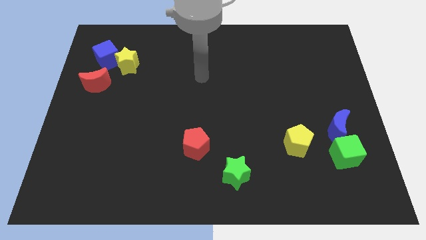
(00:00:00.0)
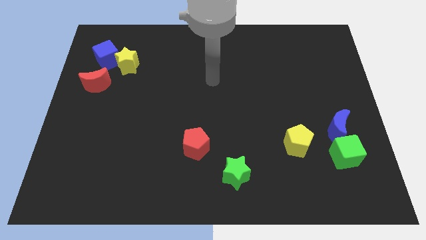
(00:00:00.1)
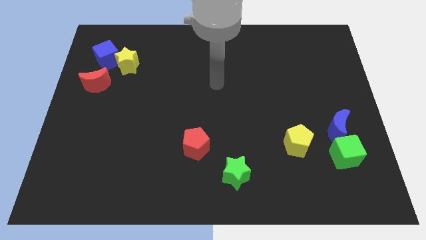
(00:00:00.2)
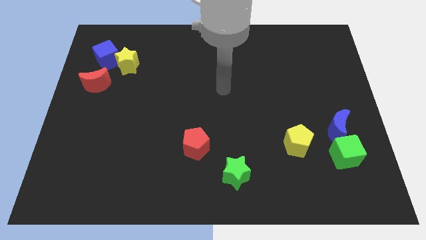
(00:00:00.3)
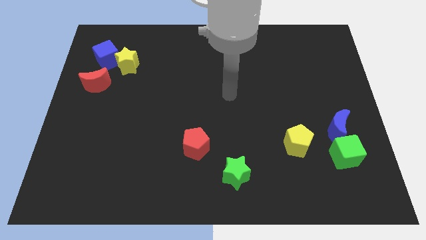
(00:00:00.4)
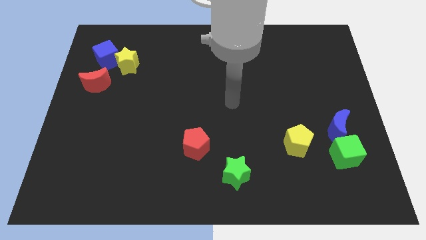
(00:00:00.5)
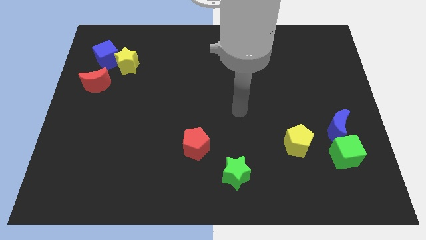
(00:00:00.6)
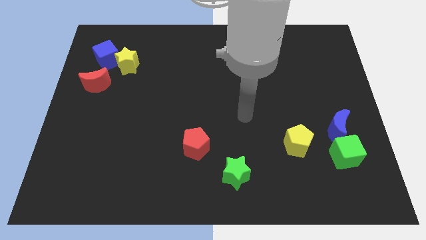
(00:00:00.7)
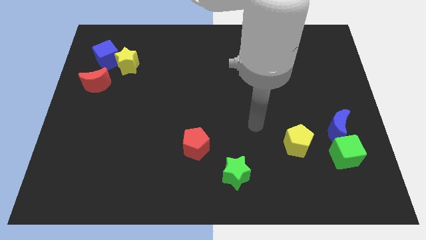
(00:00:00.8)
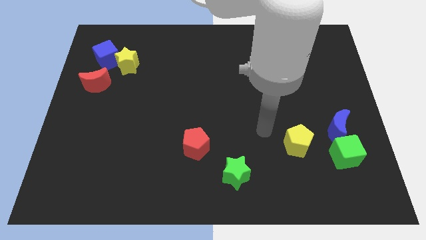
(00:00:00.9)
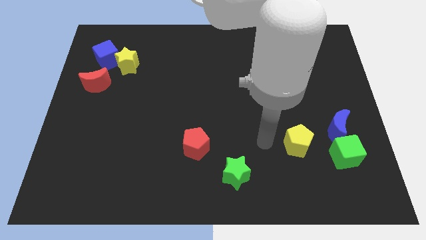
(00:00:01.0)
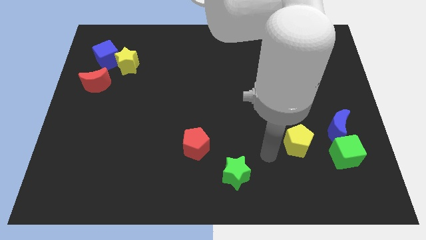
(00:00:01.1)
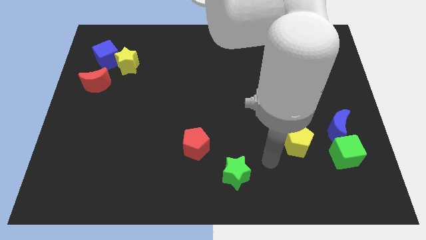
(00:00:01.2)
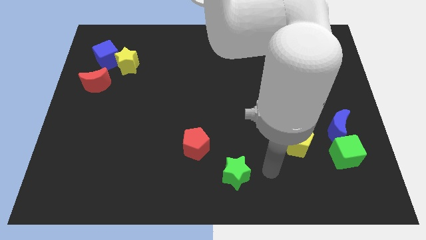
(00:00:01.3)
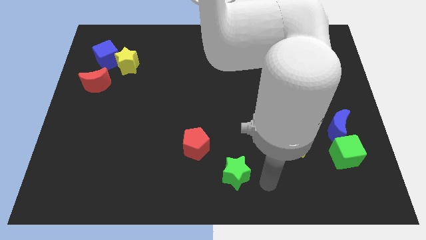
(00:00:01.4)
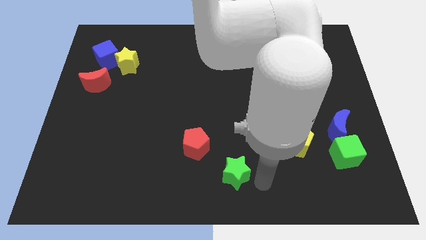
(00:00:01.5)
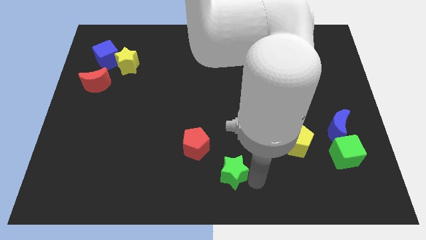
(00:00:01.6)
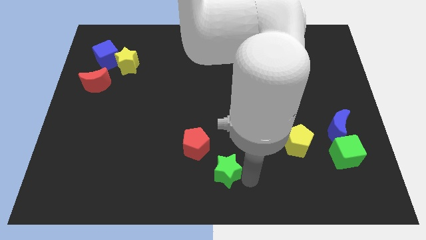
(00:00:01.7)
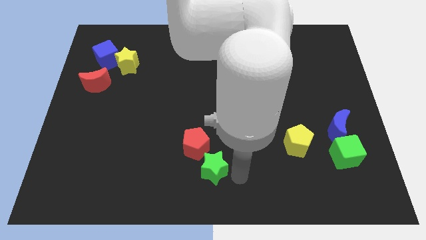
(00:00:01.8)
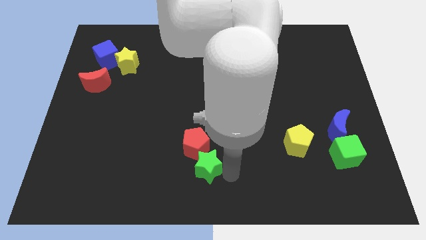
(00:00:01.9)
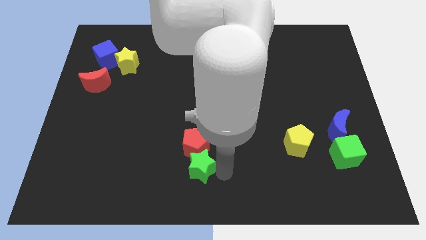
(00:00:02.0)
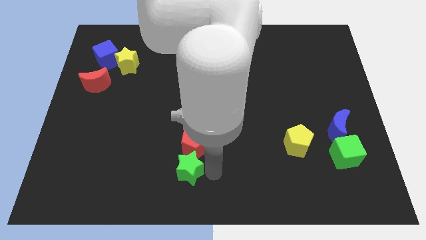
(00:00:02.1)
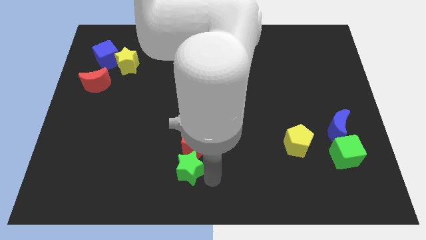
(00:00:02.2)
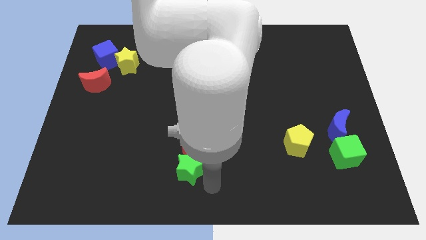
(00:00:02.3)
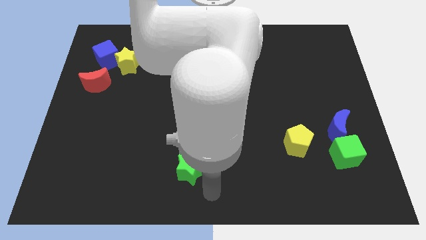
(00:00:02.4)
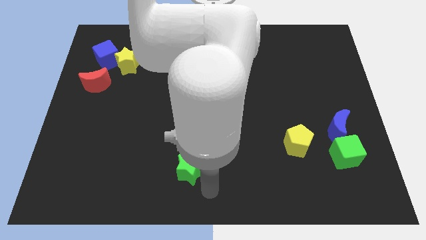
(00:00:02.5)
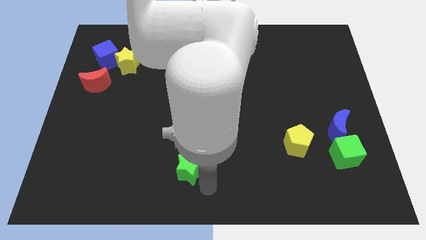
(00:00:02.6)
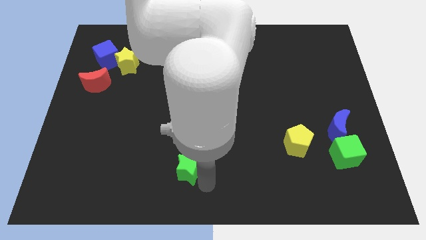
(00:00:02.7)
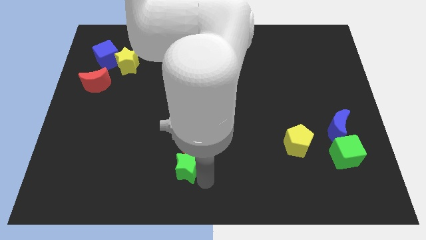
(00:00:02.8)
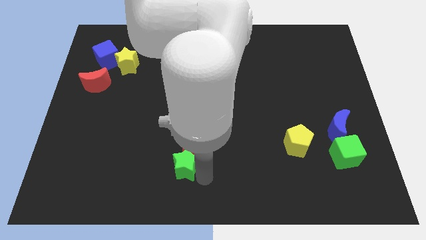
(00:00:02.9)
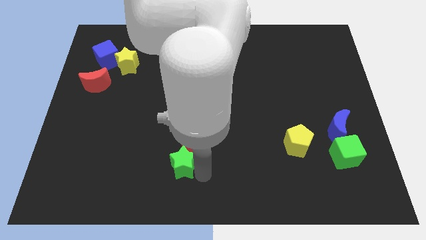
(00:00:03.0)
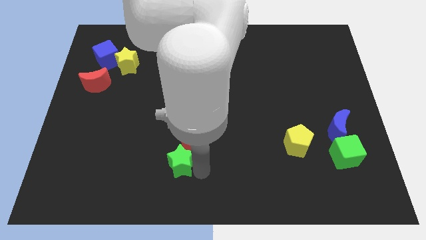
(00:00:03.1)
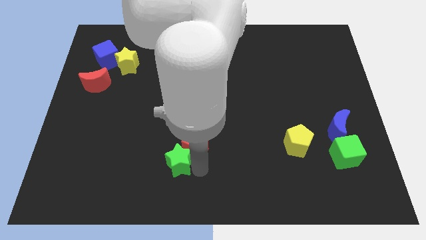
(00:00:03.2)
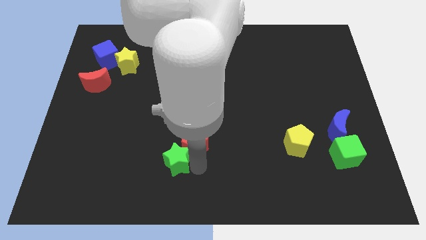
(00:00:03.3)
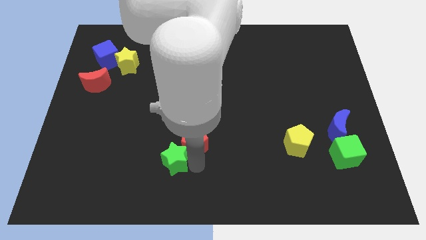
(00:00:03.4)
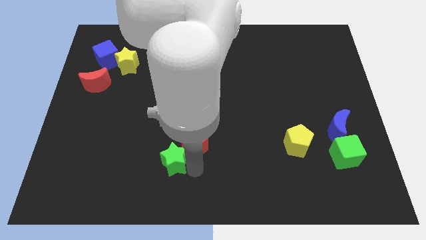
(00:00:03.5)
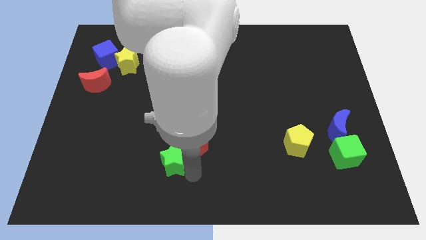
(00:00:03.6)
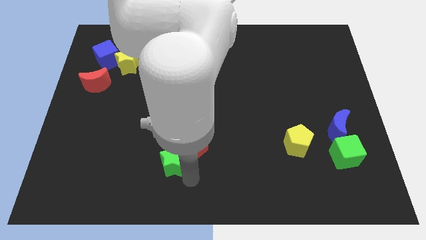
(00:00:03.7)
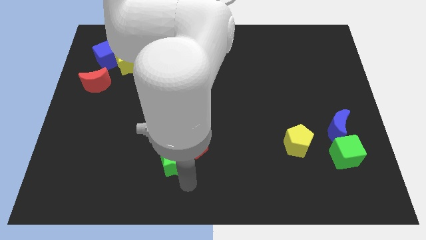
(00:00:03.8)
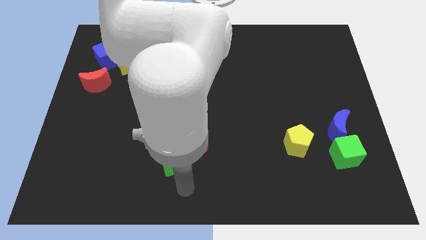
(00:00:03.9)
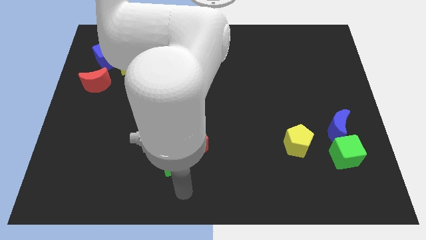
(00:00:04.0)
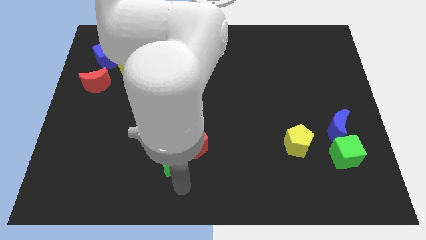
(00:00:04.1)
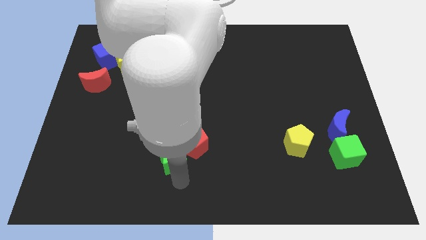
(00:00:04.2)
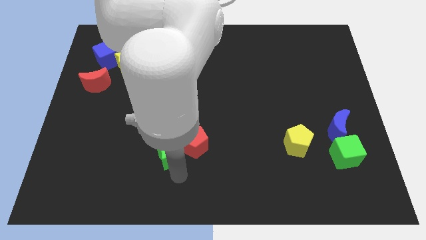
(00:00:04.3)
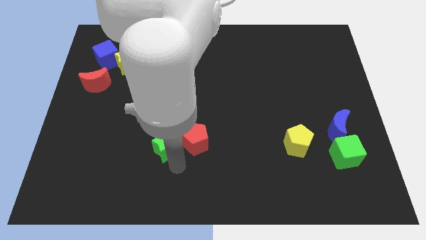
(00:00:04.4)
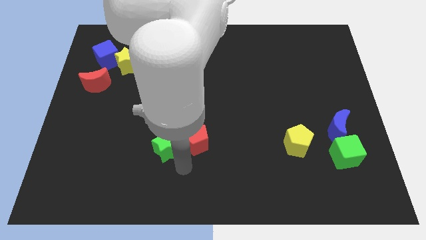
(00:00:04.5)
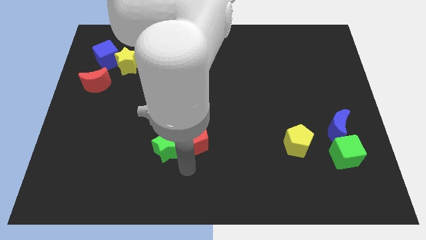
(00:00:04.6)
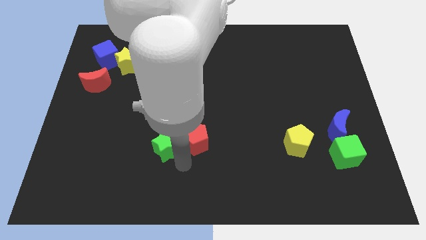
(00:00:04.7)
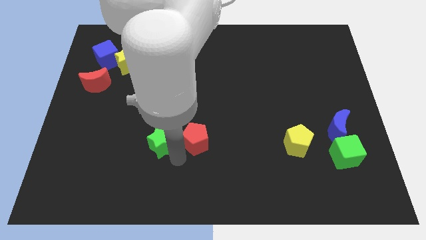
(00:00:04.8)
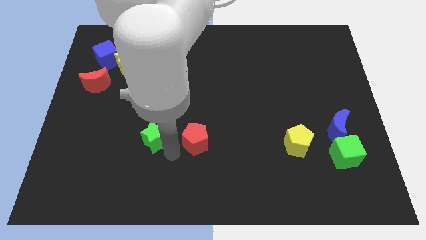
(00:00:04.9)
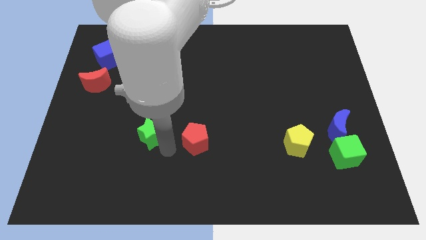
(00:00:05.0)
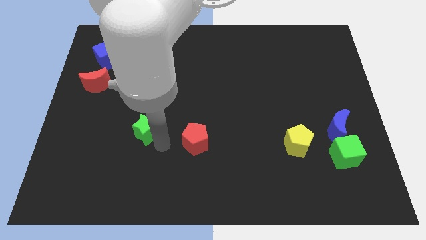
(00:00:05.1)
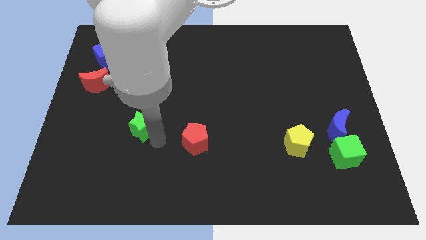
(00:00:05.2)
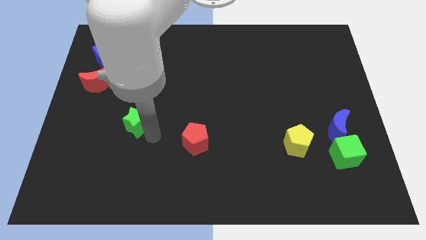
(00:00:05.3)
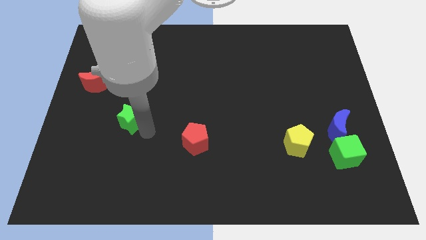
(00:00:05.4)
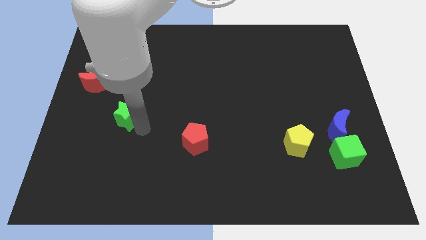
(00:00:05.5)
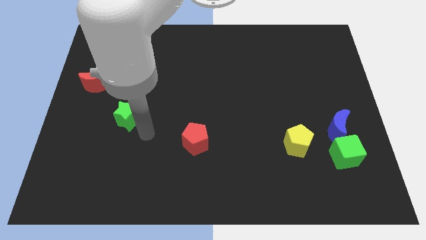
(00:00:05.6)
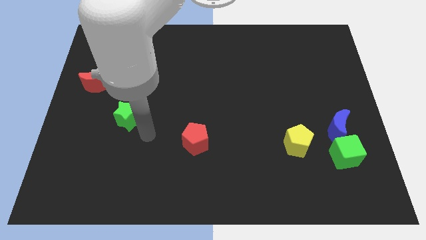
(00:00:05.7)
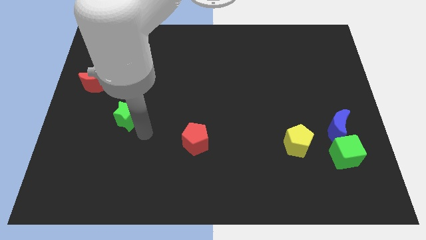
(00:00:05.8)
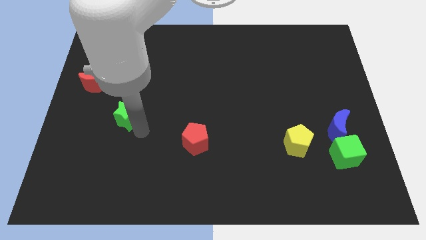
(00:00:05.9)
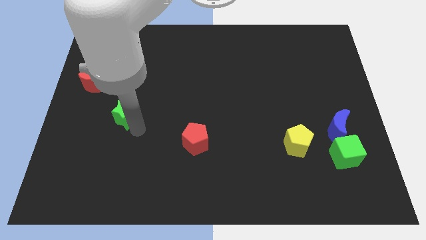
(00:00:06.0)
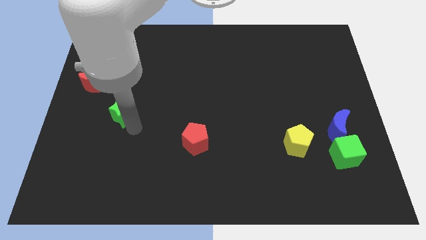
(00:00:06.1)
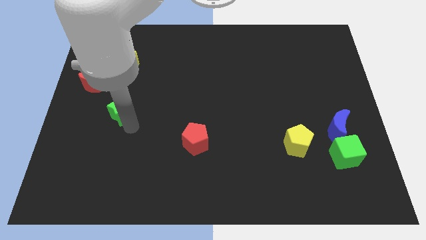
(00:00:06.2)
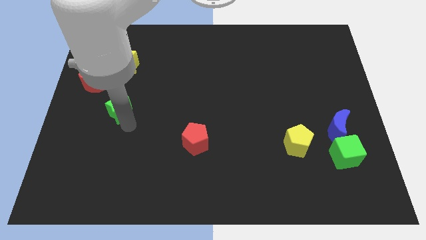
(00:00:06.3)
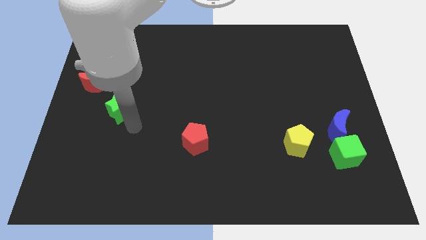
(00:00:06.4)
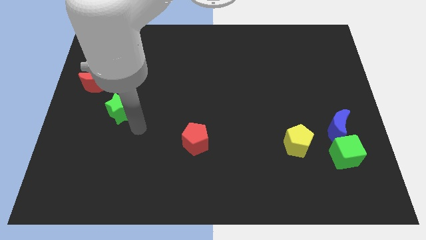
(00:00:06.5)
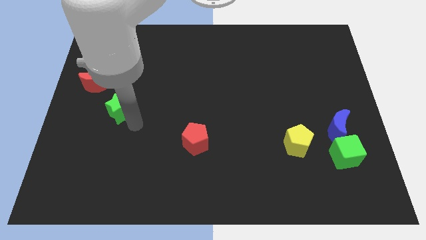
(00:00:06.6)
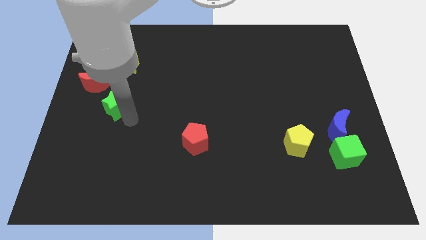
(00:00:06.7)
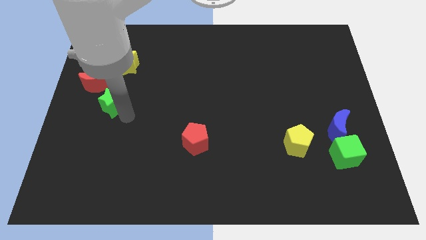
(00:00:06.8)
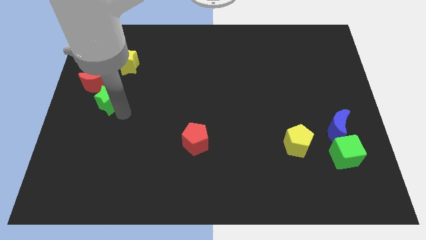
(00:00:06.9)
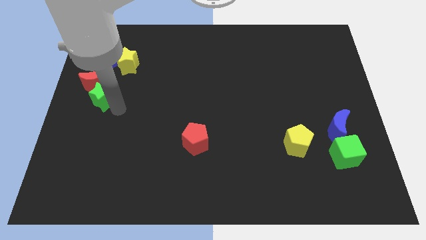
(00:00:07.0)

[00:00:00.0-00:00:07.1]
move the green star next to the red moon
